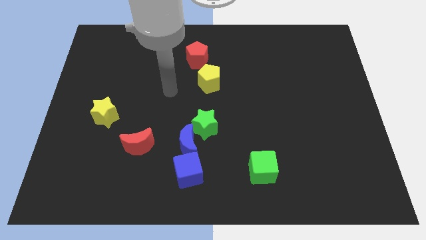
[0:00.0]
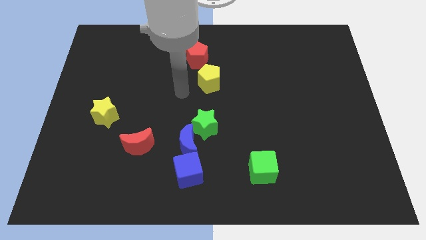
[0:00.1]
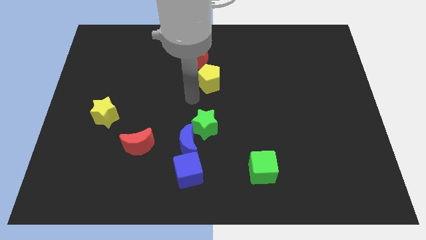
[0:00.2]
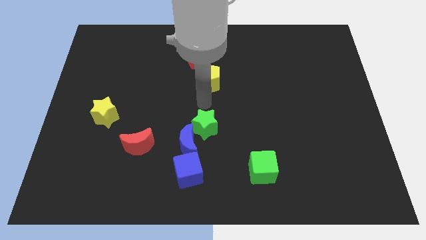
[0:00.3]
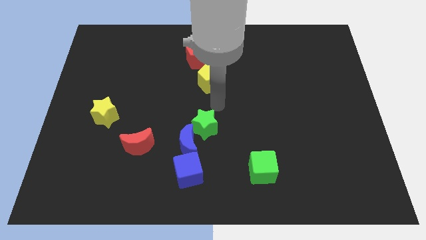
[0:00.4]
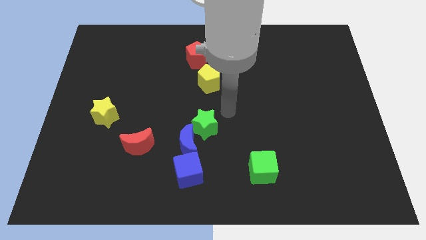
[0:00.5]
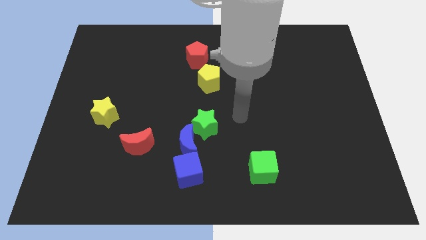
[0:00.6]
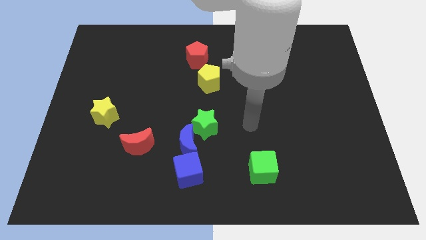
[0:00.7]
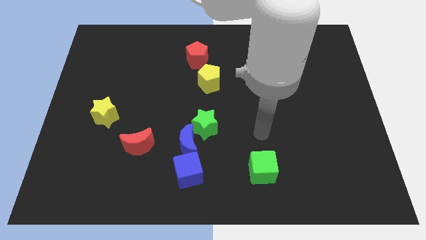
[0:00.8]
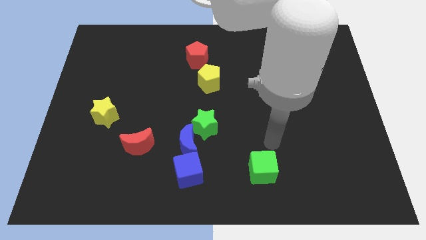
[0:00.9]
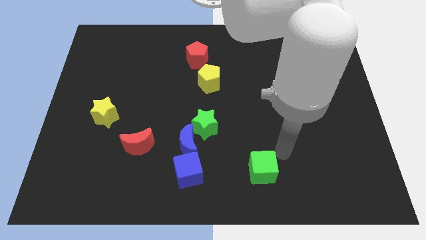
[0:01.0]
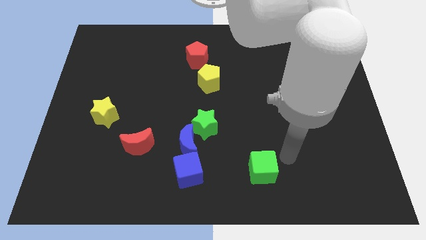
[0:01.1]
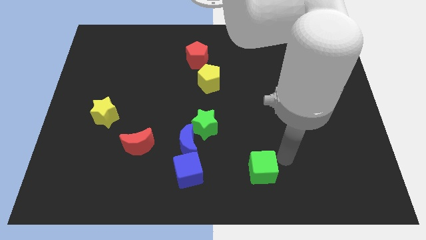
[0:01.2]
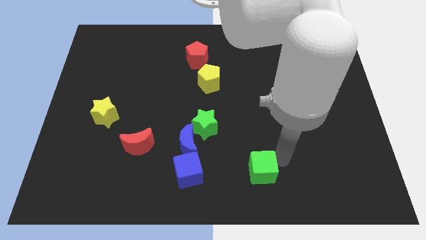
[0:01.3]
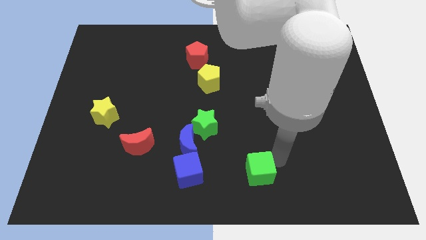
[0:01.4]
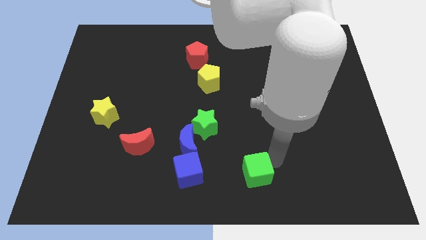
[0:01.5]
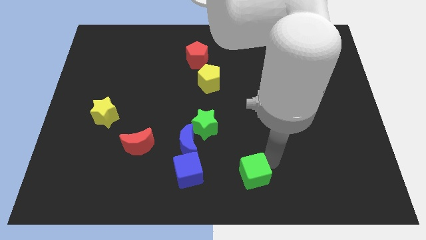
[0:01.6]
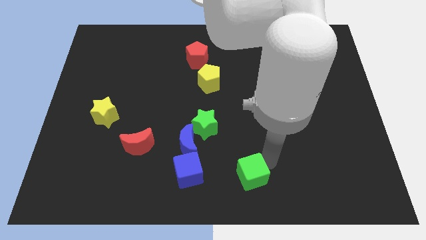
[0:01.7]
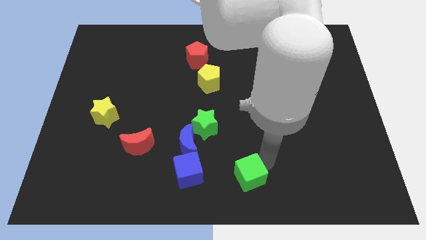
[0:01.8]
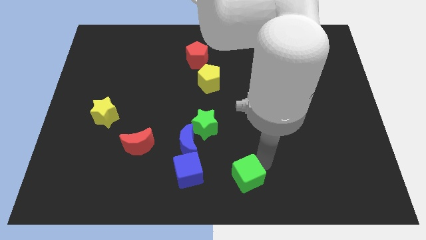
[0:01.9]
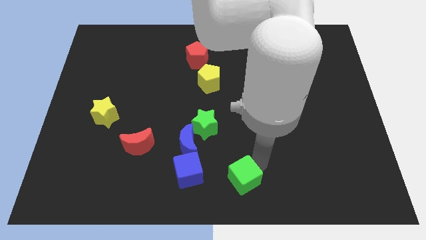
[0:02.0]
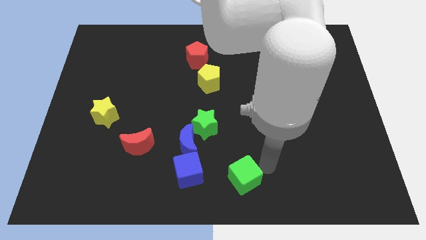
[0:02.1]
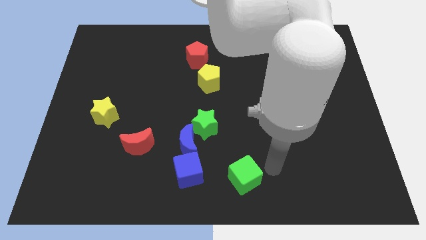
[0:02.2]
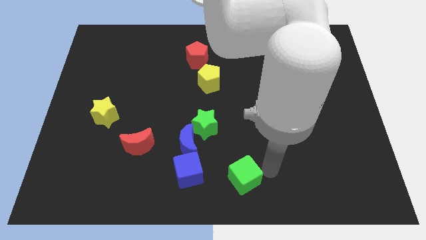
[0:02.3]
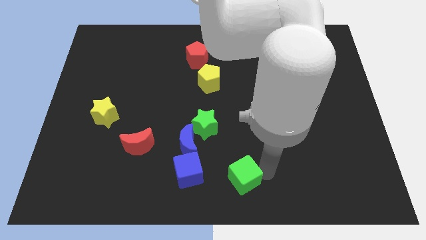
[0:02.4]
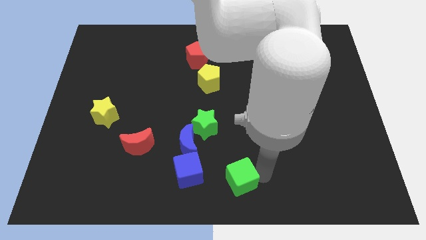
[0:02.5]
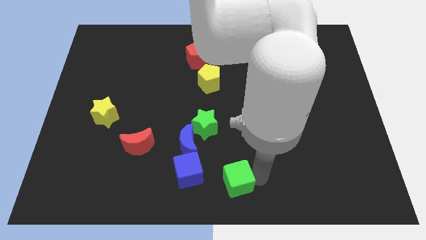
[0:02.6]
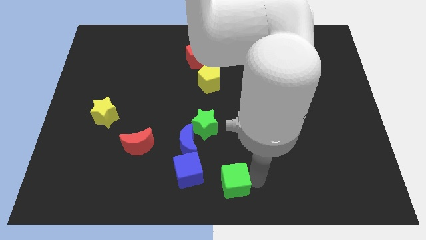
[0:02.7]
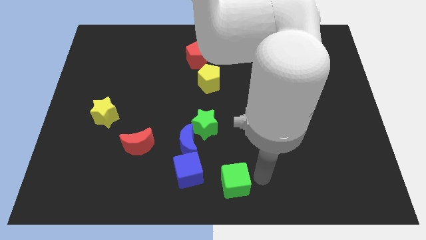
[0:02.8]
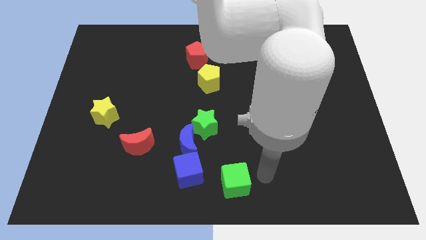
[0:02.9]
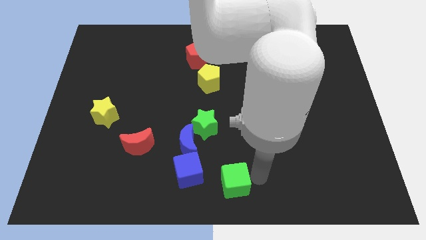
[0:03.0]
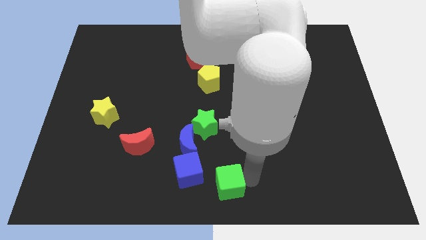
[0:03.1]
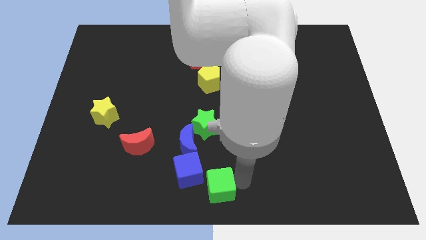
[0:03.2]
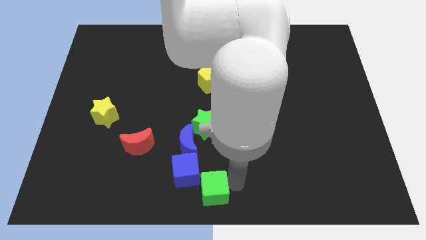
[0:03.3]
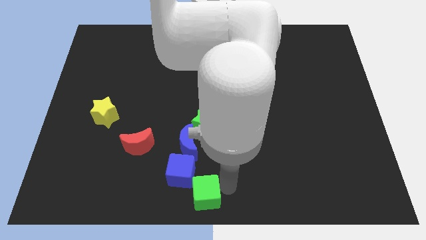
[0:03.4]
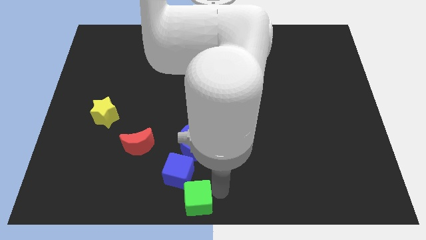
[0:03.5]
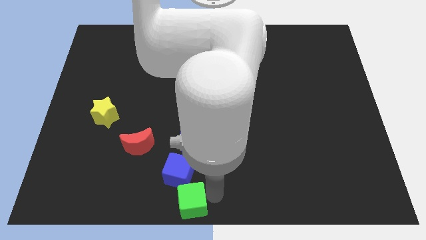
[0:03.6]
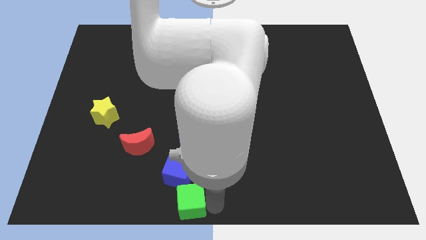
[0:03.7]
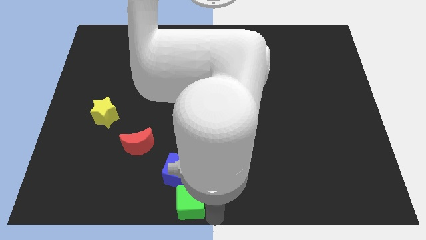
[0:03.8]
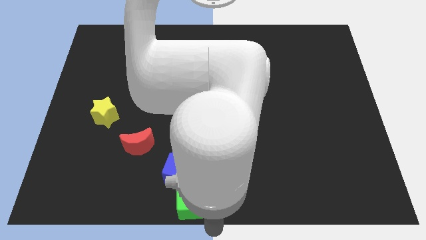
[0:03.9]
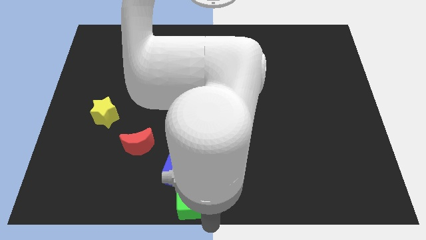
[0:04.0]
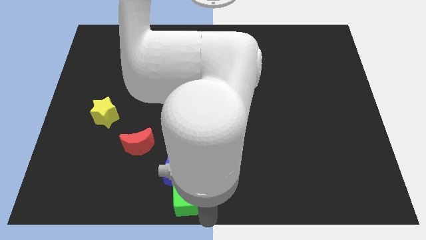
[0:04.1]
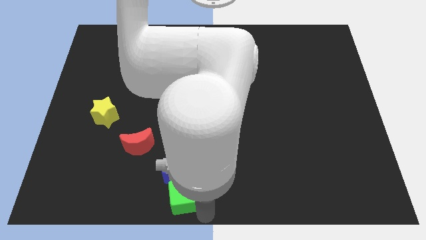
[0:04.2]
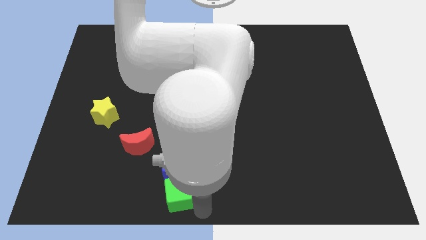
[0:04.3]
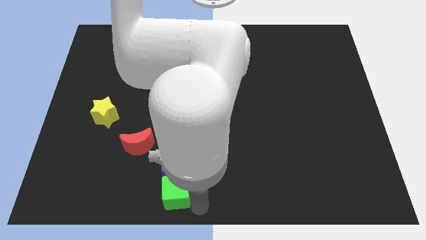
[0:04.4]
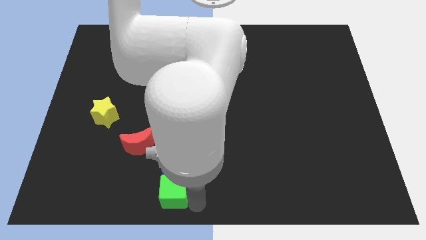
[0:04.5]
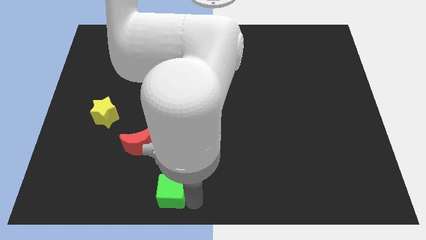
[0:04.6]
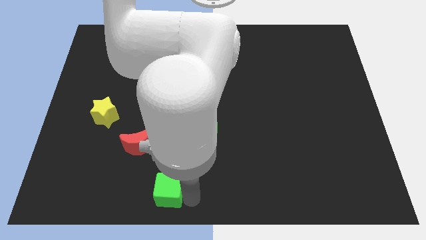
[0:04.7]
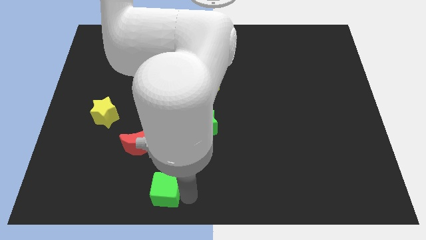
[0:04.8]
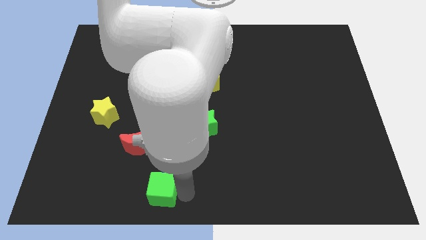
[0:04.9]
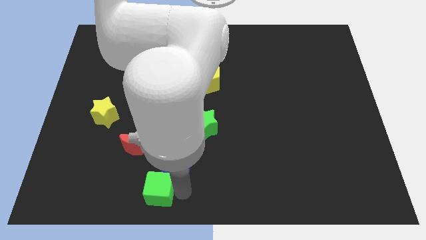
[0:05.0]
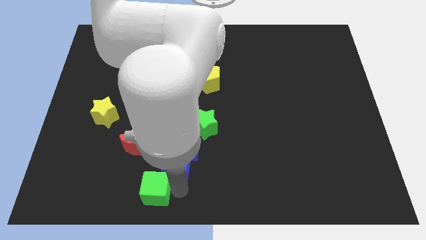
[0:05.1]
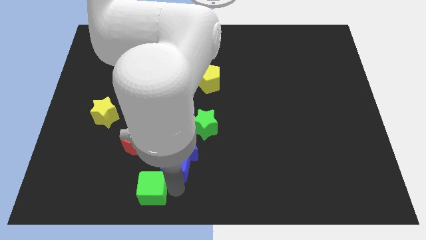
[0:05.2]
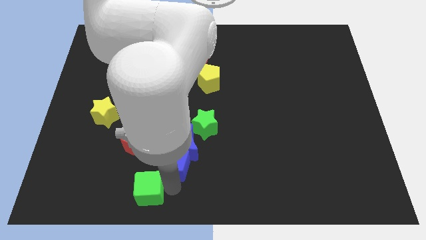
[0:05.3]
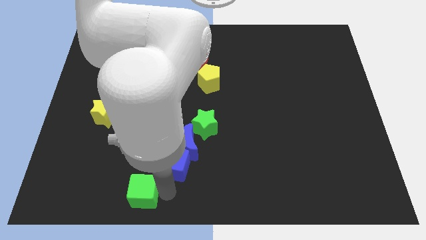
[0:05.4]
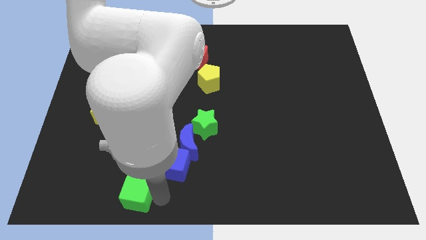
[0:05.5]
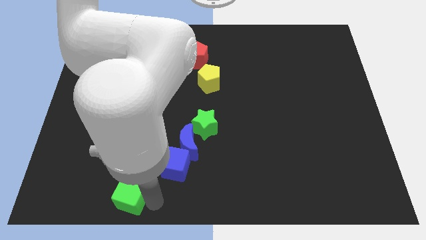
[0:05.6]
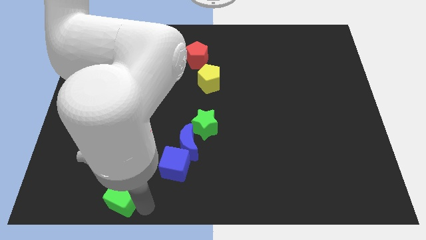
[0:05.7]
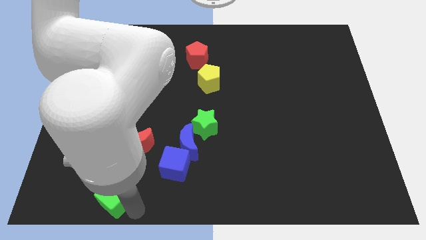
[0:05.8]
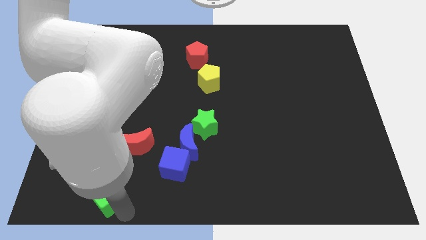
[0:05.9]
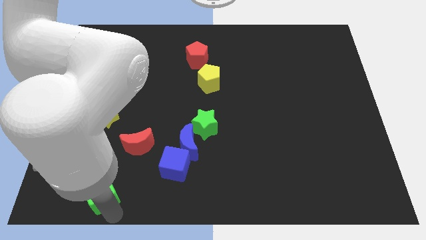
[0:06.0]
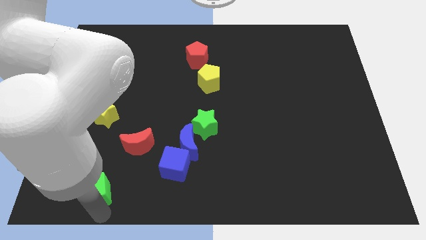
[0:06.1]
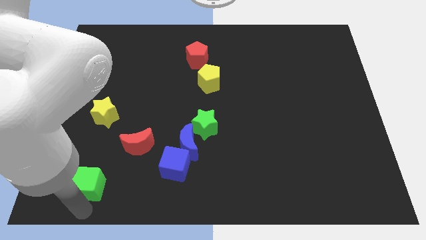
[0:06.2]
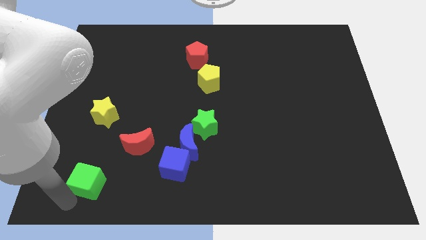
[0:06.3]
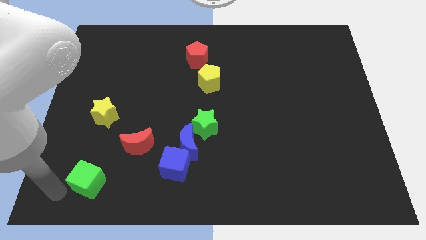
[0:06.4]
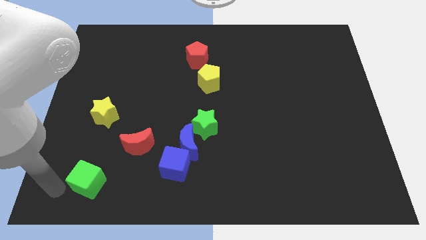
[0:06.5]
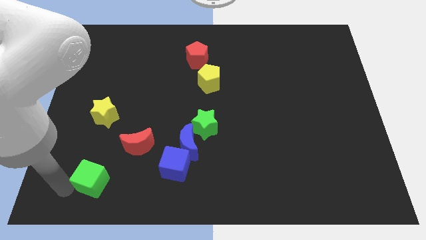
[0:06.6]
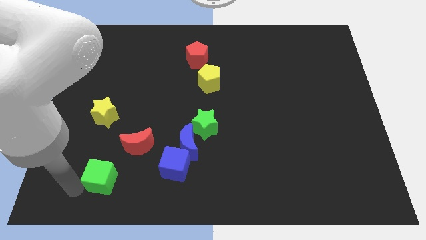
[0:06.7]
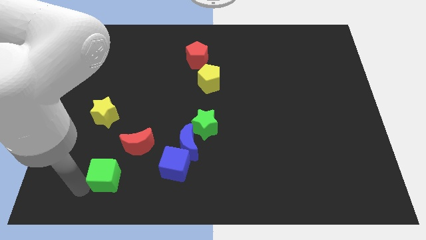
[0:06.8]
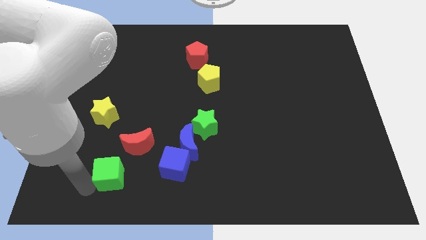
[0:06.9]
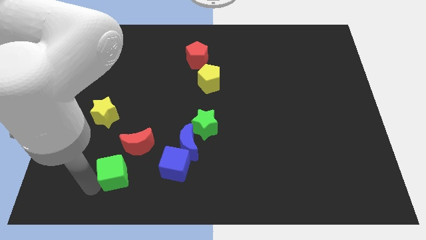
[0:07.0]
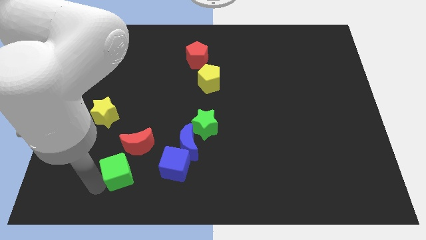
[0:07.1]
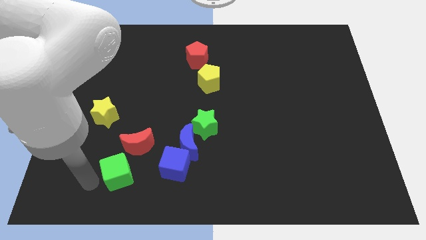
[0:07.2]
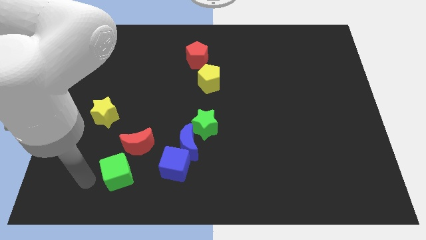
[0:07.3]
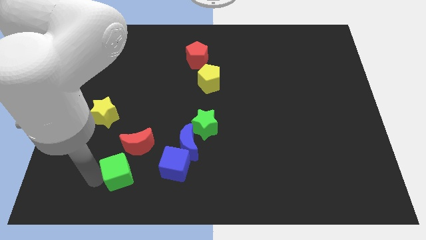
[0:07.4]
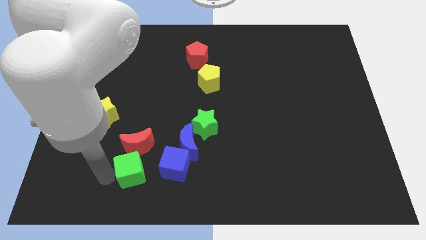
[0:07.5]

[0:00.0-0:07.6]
slide the green cube towards the red moon
